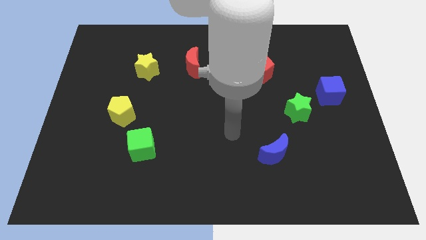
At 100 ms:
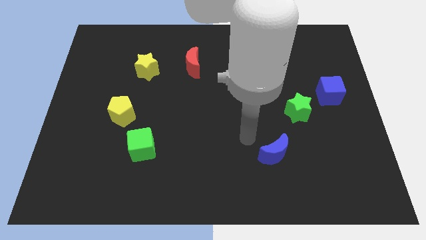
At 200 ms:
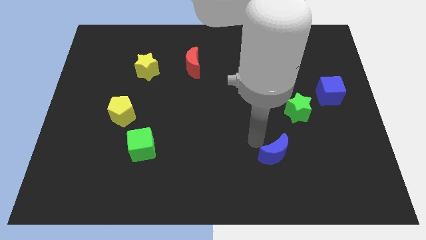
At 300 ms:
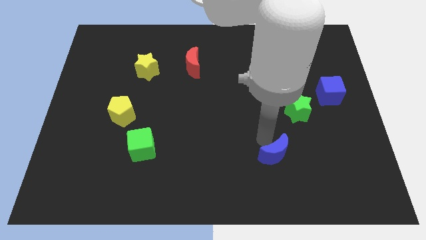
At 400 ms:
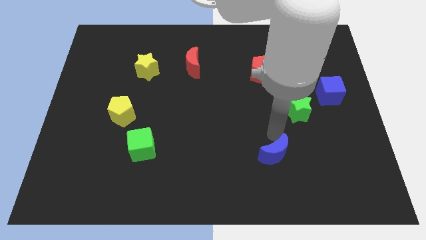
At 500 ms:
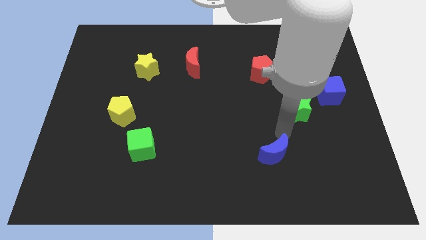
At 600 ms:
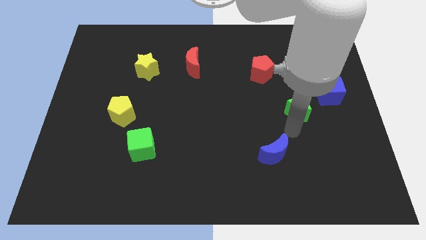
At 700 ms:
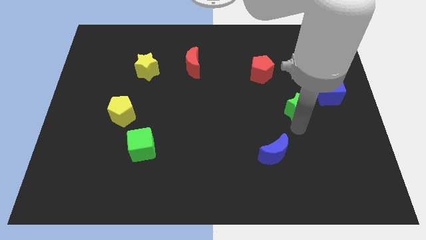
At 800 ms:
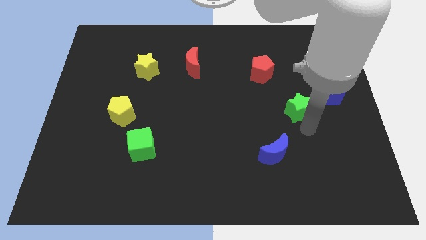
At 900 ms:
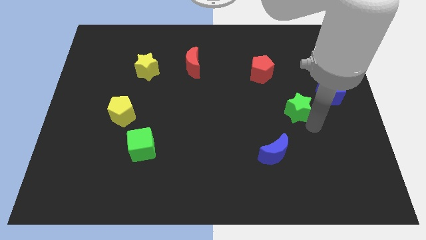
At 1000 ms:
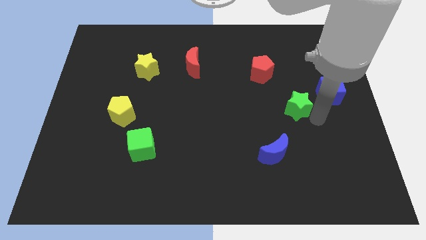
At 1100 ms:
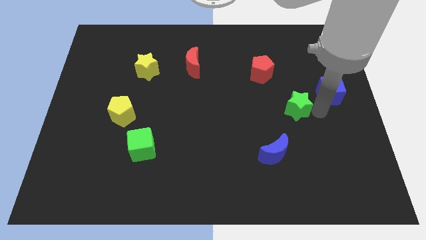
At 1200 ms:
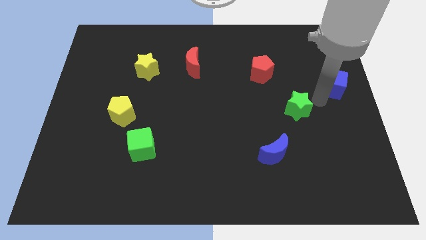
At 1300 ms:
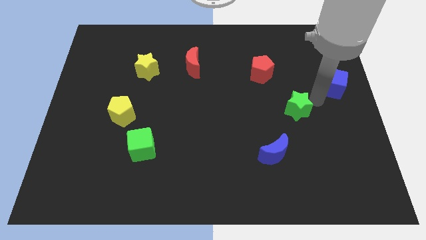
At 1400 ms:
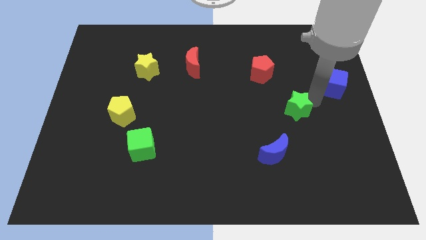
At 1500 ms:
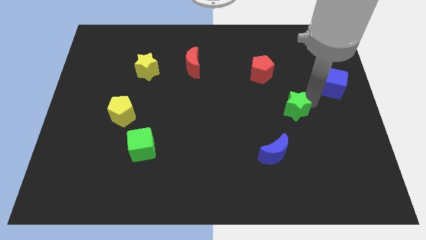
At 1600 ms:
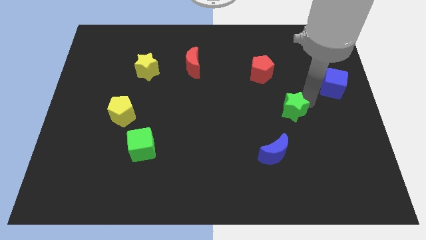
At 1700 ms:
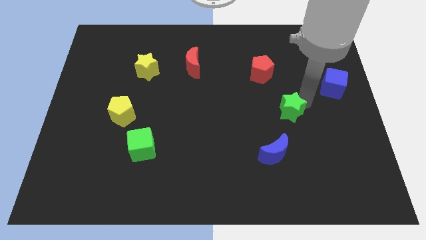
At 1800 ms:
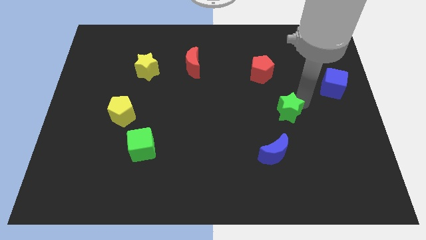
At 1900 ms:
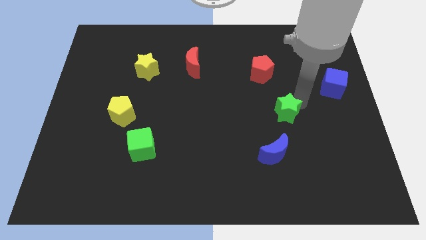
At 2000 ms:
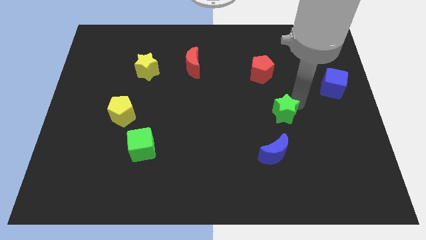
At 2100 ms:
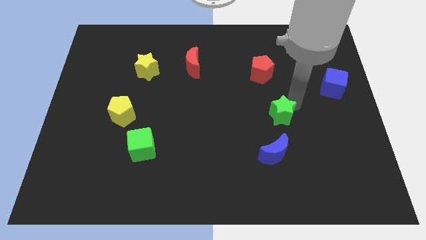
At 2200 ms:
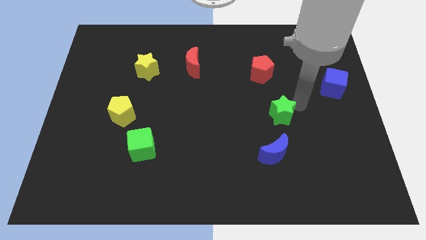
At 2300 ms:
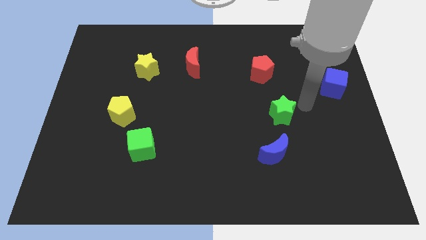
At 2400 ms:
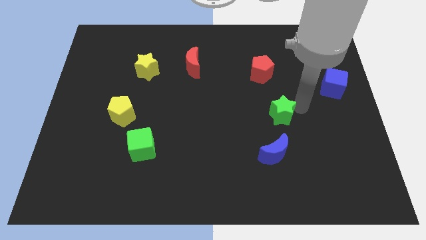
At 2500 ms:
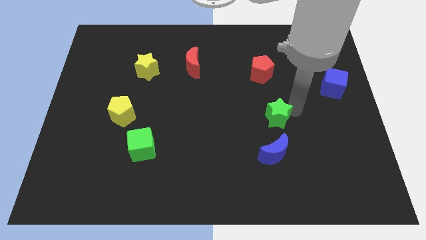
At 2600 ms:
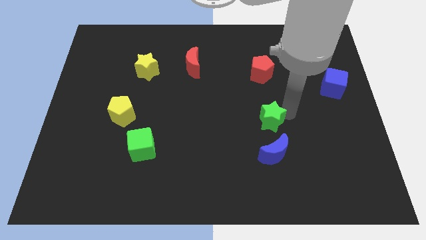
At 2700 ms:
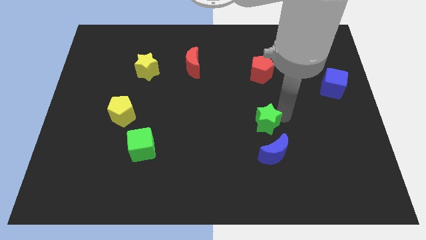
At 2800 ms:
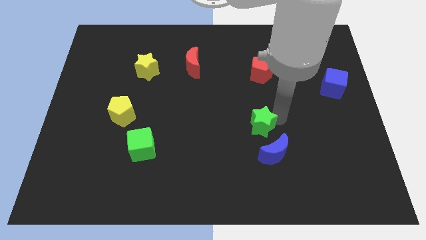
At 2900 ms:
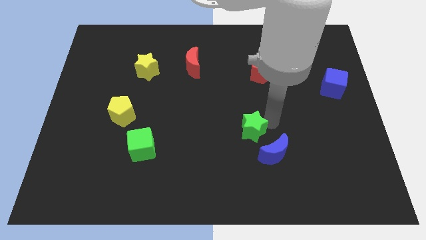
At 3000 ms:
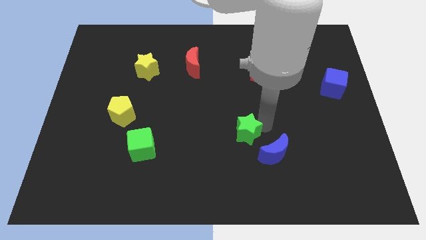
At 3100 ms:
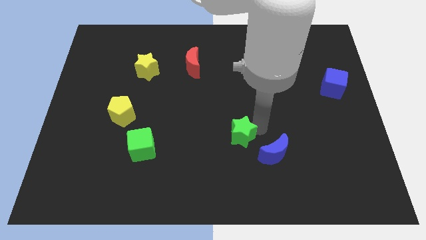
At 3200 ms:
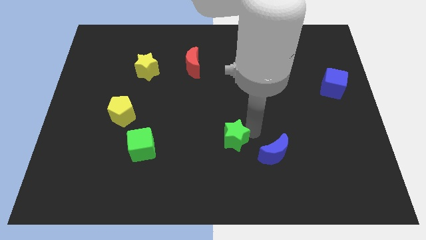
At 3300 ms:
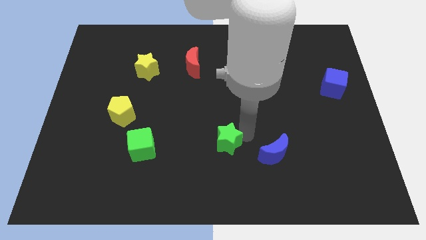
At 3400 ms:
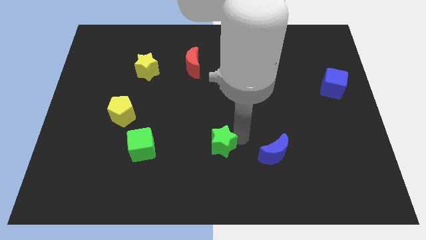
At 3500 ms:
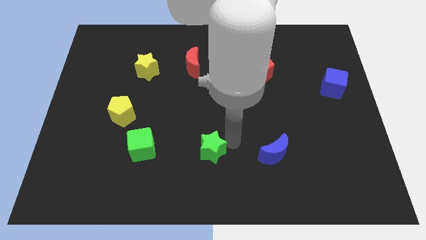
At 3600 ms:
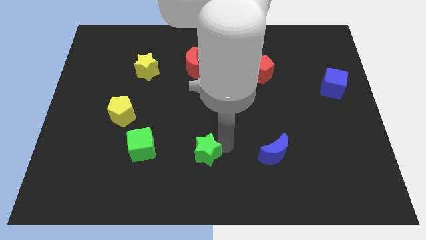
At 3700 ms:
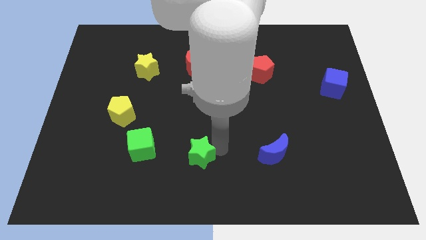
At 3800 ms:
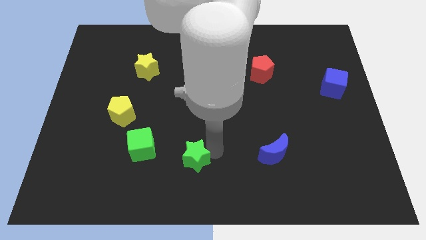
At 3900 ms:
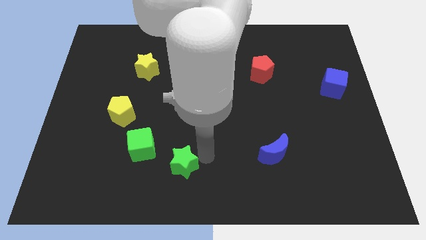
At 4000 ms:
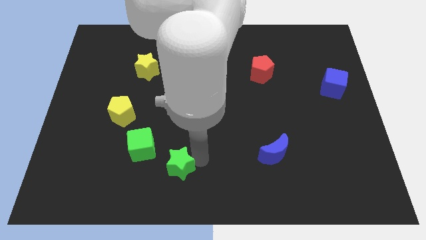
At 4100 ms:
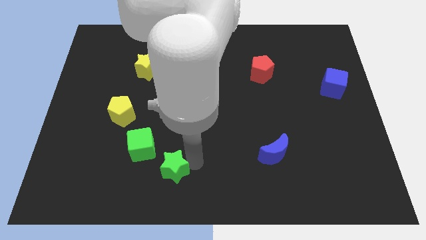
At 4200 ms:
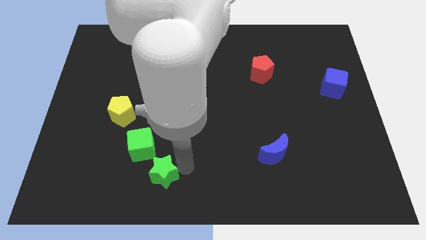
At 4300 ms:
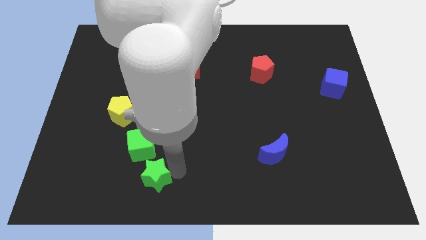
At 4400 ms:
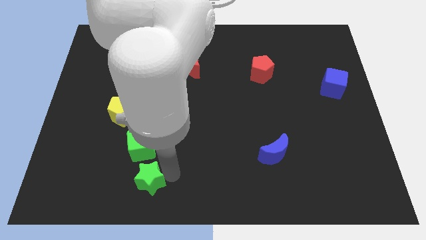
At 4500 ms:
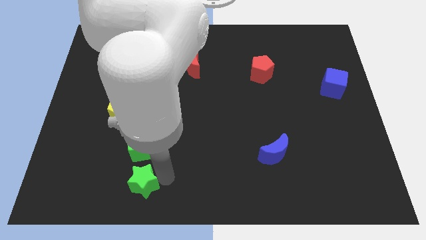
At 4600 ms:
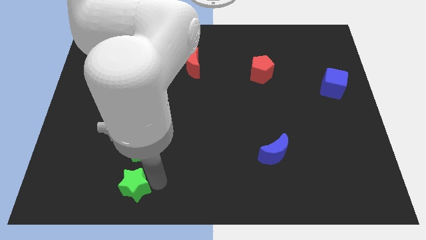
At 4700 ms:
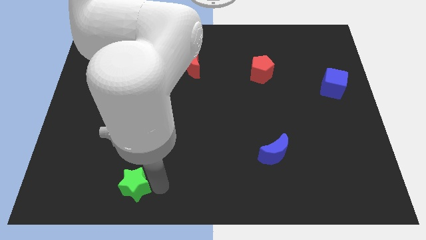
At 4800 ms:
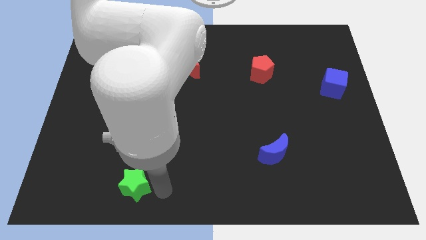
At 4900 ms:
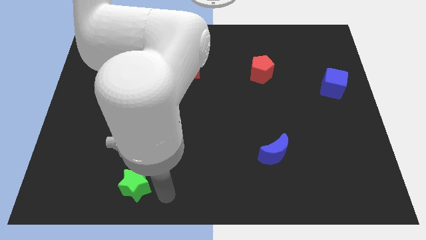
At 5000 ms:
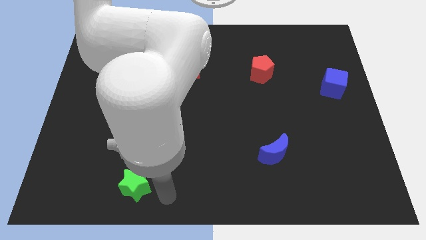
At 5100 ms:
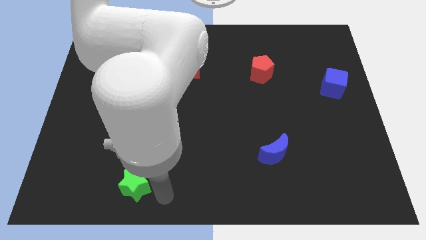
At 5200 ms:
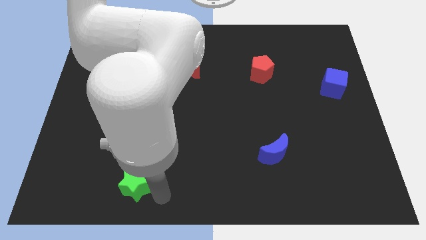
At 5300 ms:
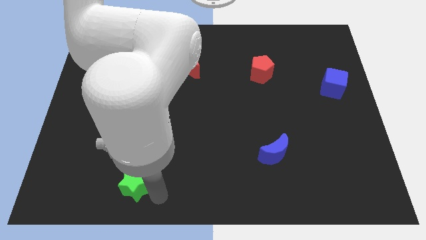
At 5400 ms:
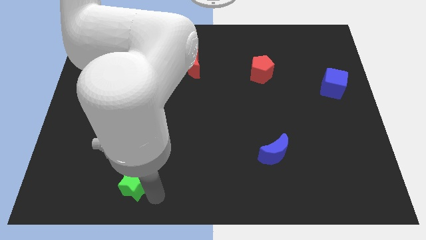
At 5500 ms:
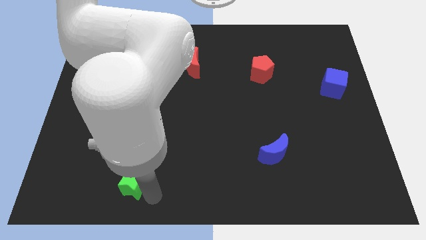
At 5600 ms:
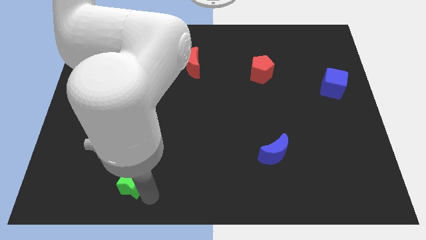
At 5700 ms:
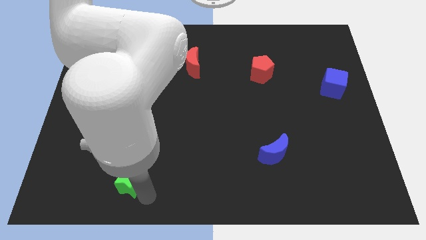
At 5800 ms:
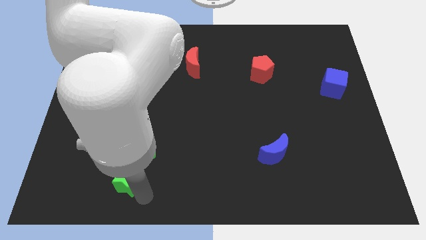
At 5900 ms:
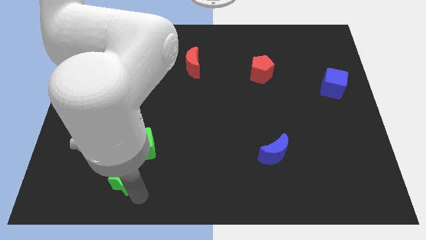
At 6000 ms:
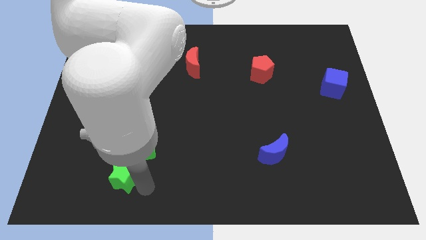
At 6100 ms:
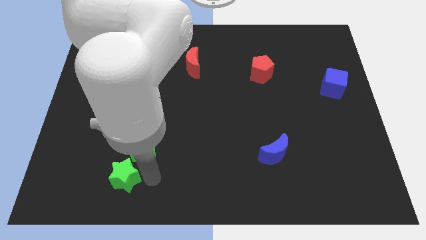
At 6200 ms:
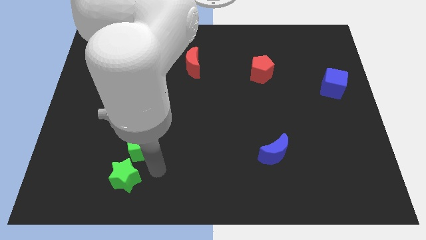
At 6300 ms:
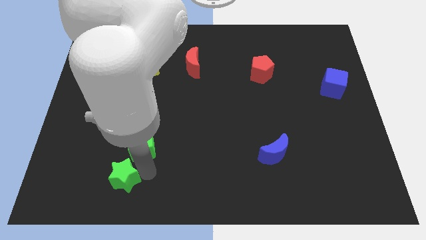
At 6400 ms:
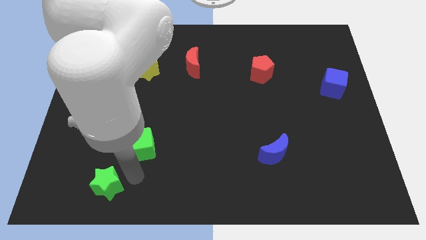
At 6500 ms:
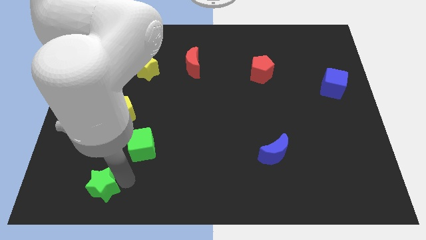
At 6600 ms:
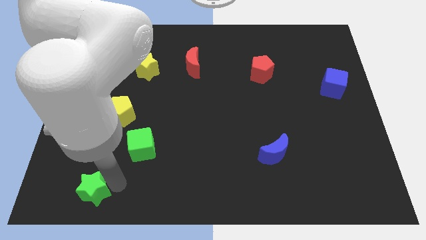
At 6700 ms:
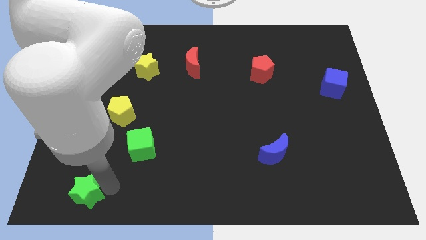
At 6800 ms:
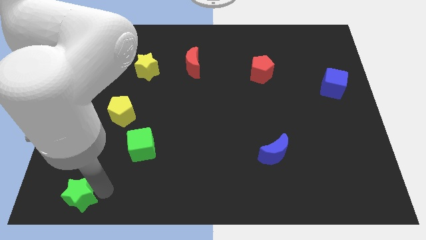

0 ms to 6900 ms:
put the green star to the lower left corner
